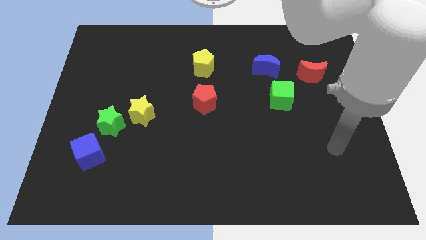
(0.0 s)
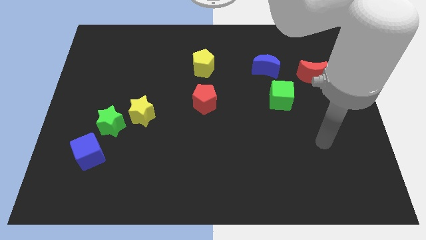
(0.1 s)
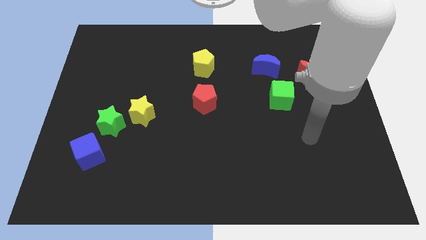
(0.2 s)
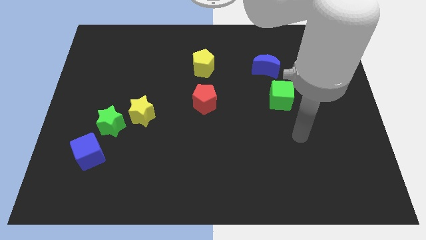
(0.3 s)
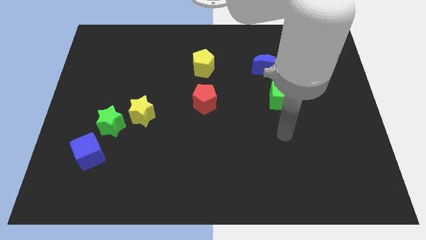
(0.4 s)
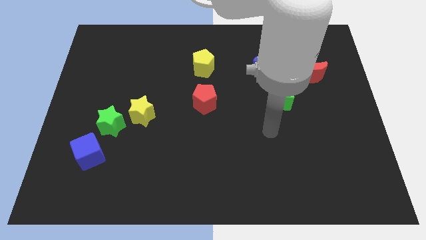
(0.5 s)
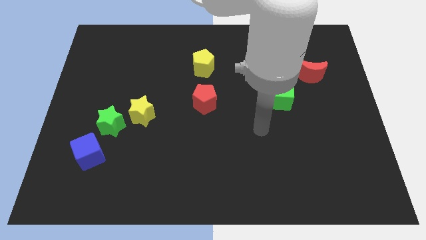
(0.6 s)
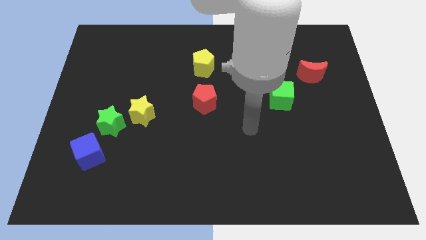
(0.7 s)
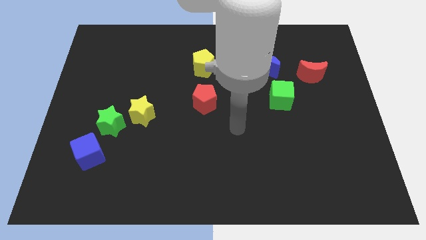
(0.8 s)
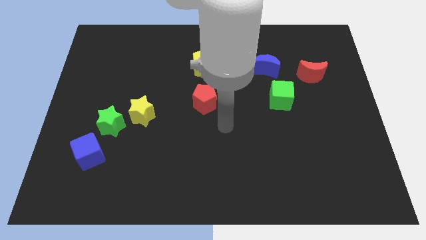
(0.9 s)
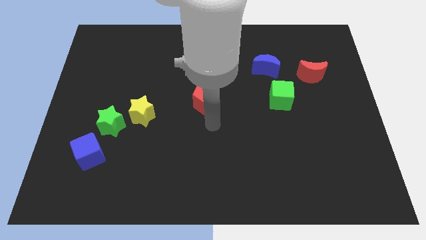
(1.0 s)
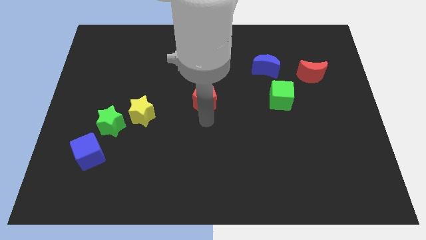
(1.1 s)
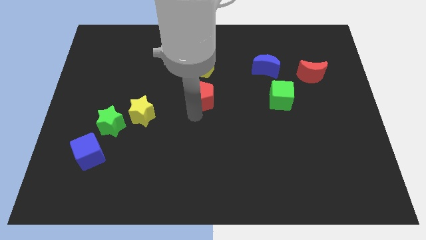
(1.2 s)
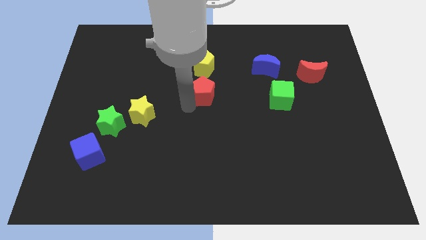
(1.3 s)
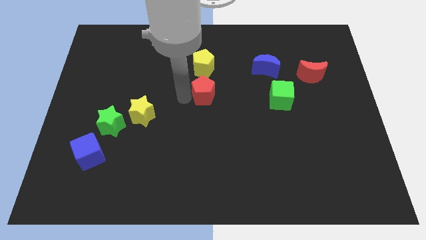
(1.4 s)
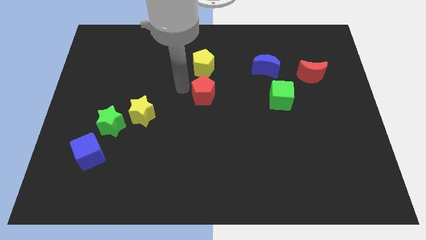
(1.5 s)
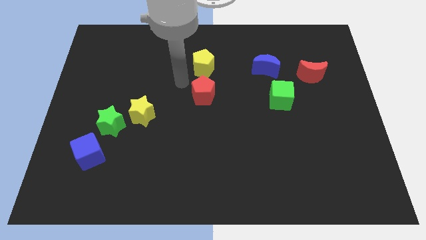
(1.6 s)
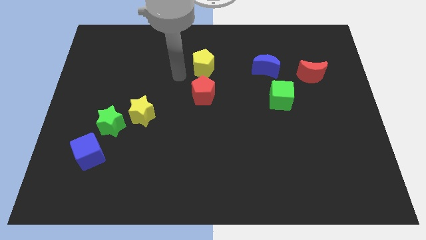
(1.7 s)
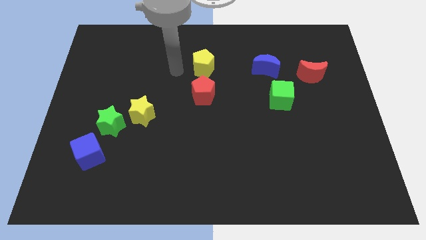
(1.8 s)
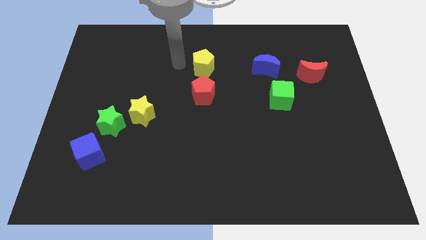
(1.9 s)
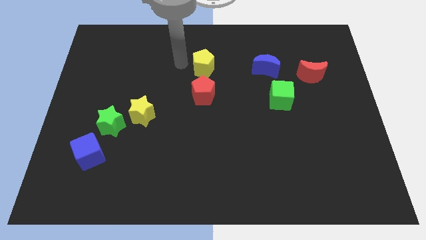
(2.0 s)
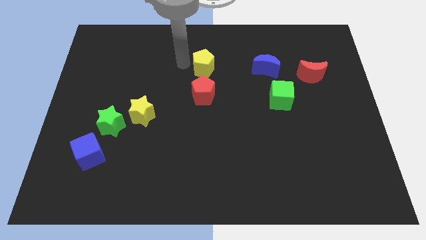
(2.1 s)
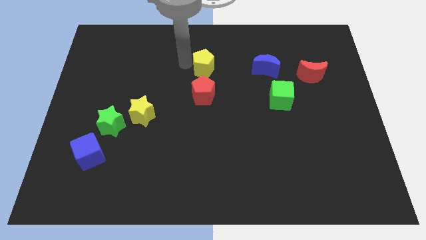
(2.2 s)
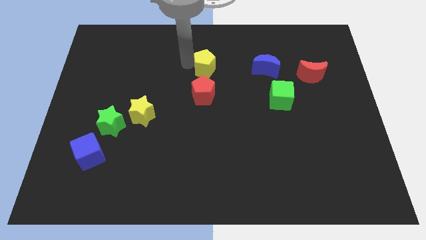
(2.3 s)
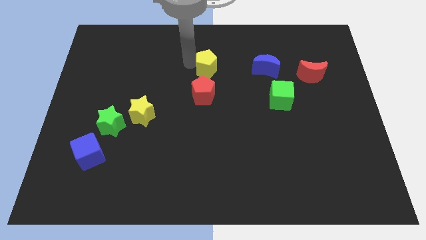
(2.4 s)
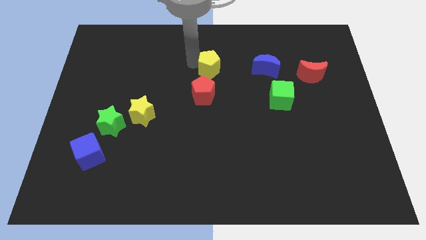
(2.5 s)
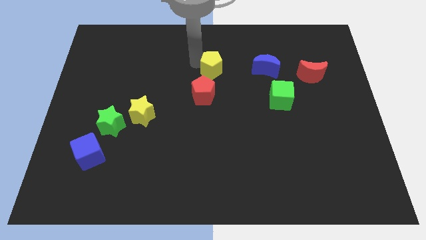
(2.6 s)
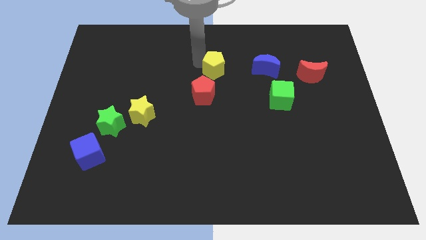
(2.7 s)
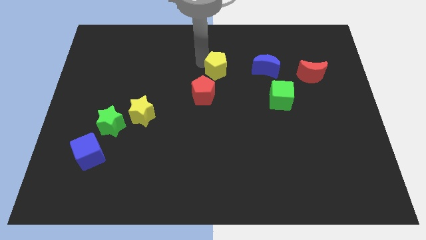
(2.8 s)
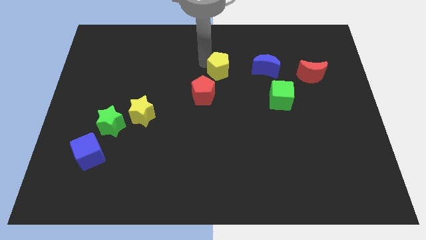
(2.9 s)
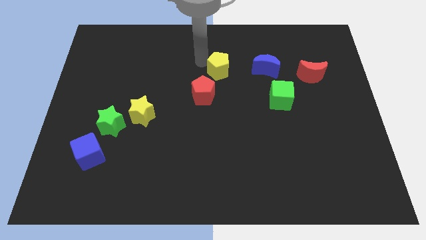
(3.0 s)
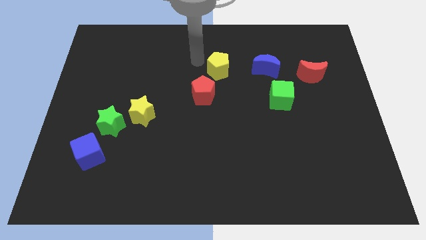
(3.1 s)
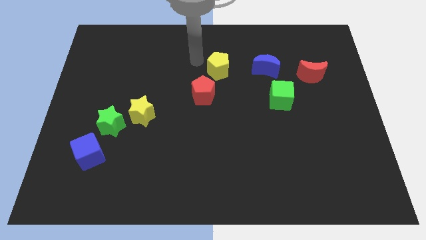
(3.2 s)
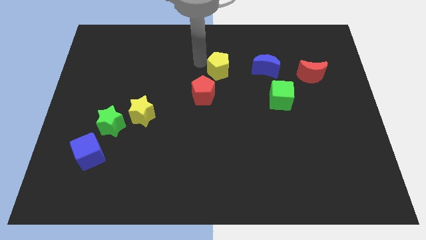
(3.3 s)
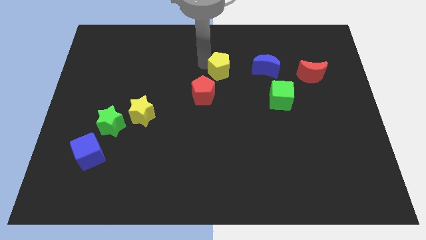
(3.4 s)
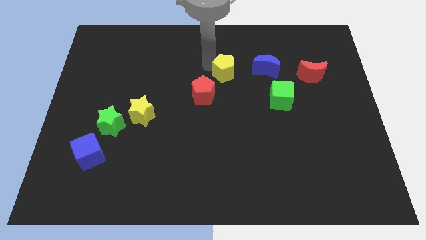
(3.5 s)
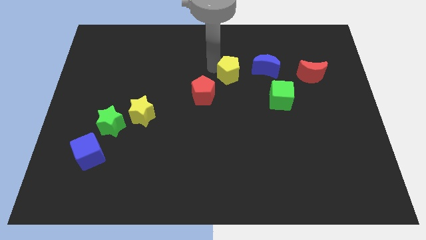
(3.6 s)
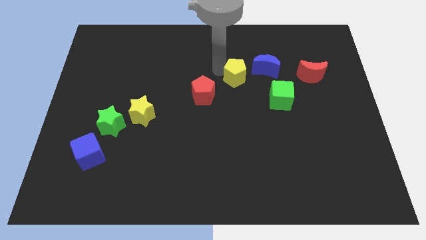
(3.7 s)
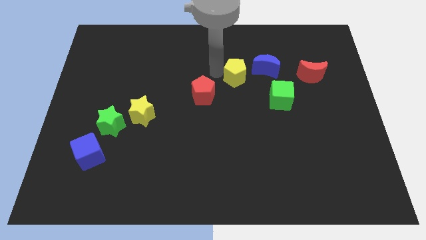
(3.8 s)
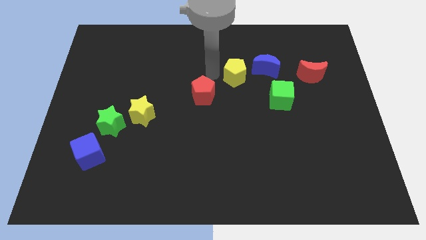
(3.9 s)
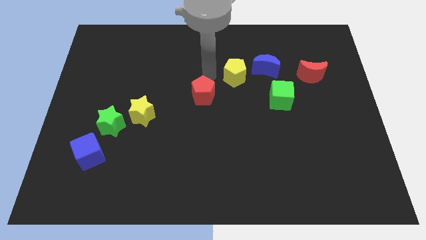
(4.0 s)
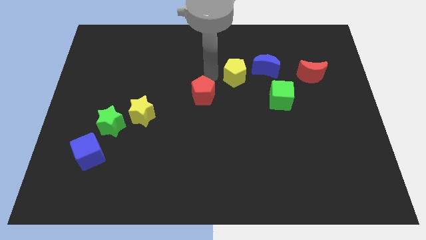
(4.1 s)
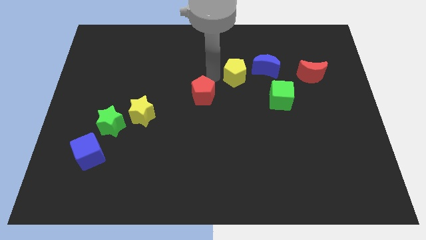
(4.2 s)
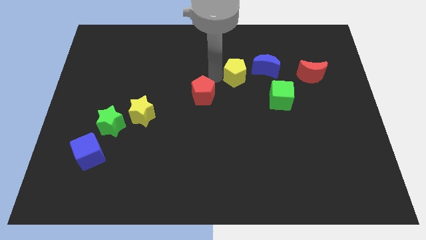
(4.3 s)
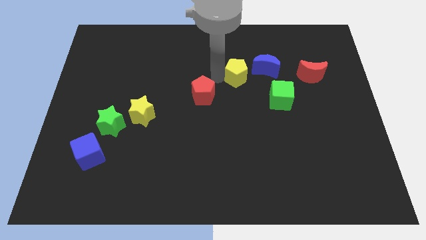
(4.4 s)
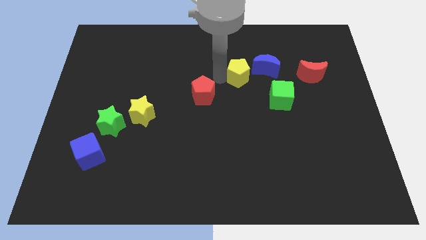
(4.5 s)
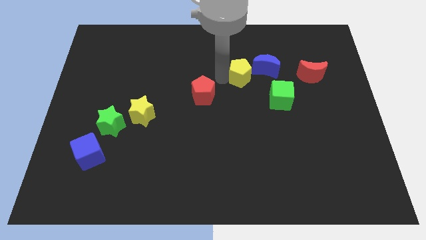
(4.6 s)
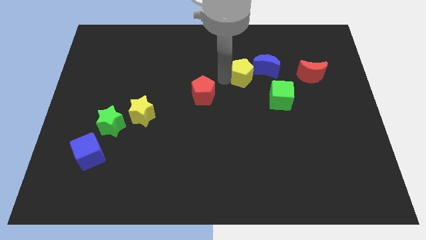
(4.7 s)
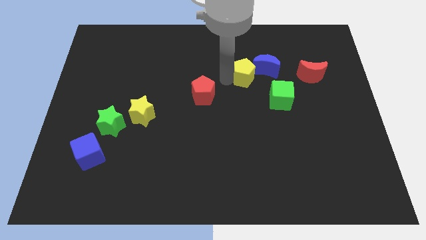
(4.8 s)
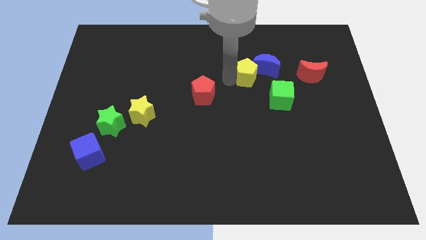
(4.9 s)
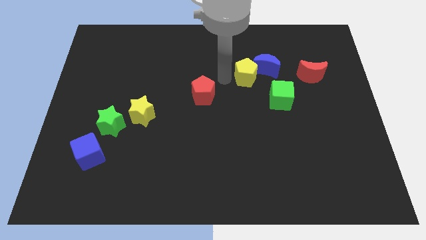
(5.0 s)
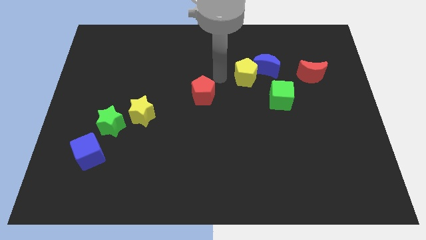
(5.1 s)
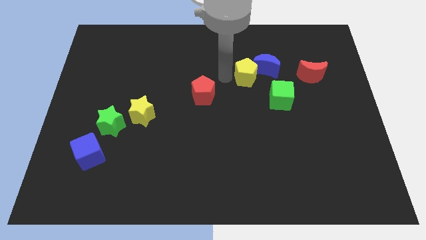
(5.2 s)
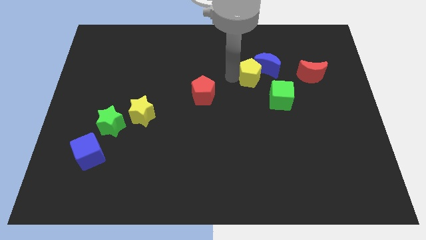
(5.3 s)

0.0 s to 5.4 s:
move the yellow pentagon just left of the red moon

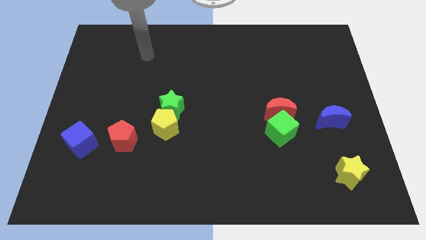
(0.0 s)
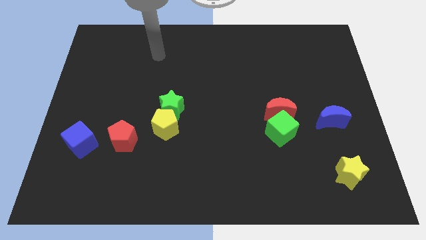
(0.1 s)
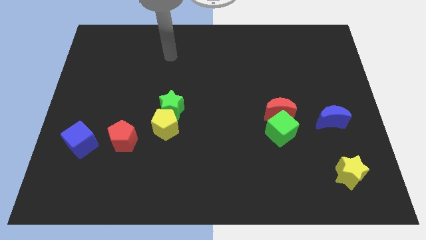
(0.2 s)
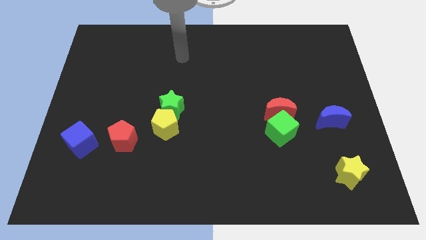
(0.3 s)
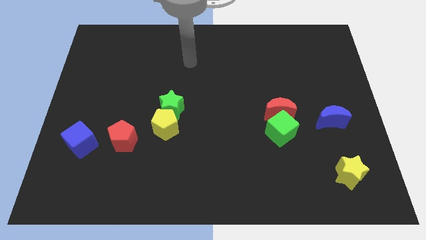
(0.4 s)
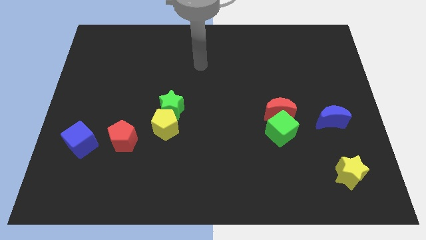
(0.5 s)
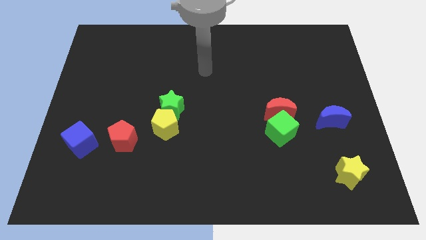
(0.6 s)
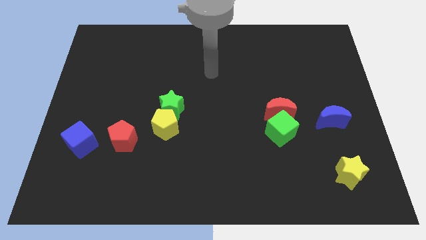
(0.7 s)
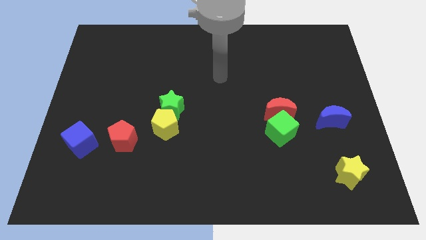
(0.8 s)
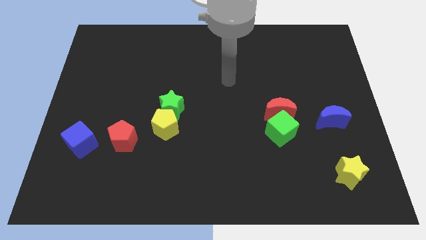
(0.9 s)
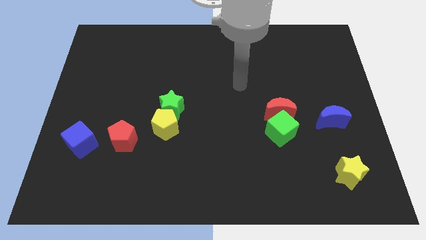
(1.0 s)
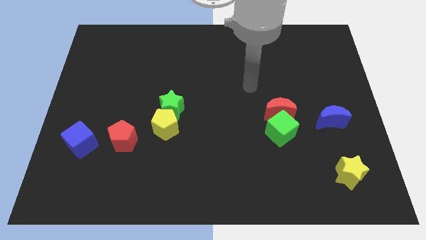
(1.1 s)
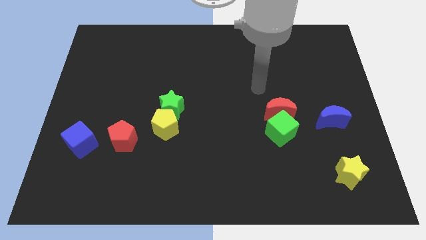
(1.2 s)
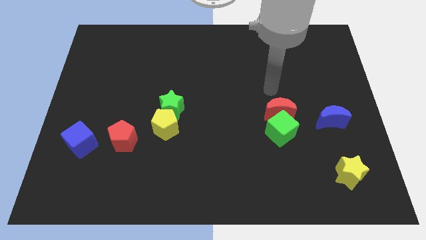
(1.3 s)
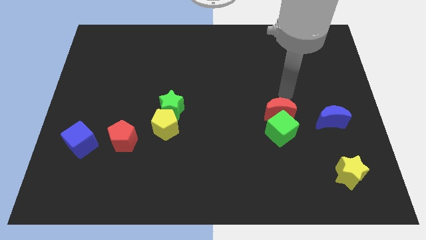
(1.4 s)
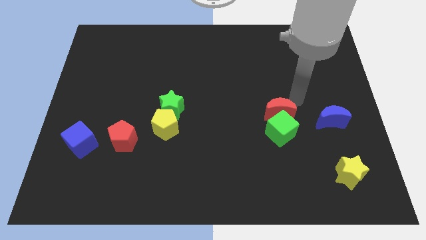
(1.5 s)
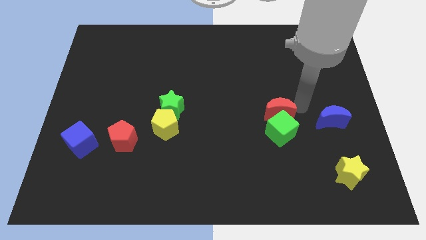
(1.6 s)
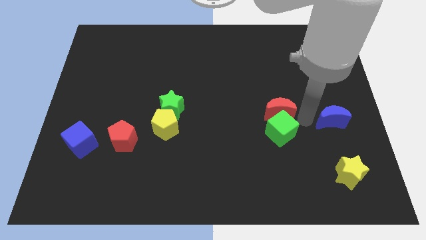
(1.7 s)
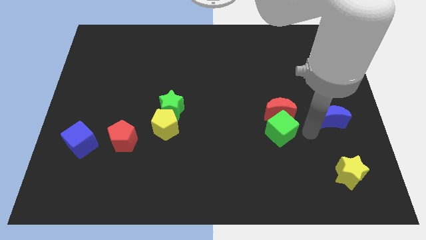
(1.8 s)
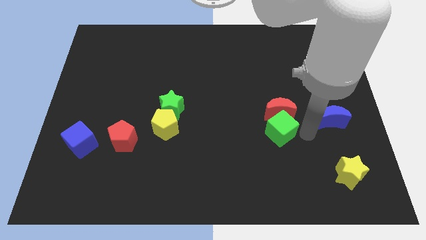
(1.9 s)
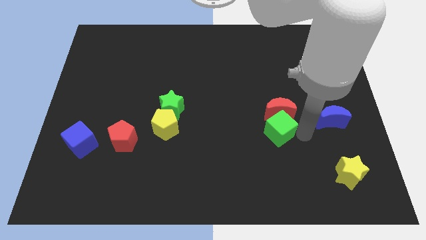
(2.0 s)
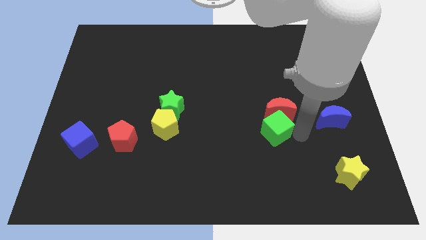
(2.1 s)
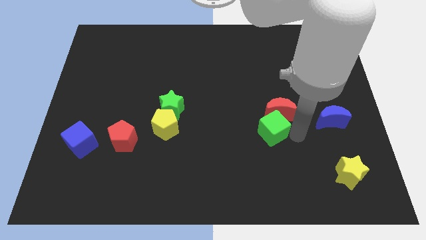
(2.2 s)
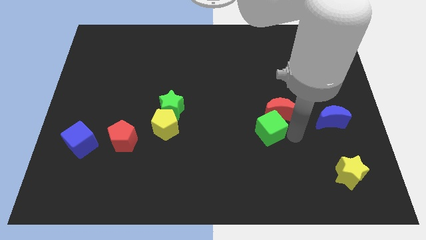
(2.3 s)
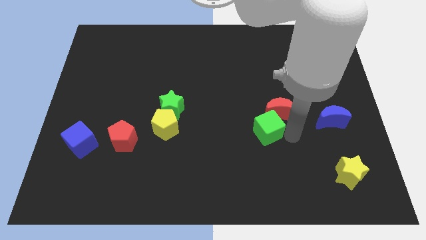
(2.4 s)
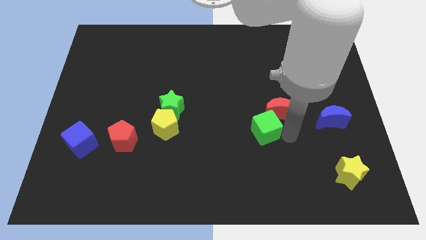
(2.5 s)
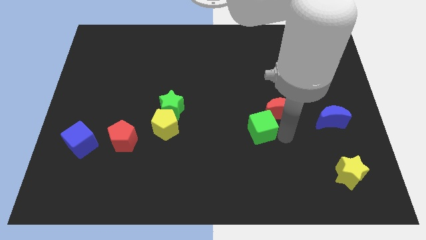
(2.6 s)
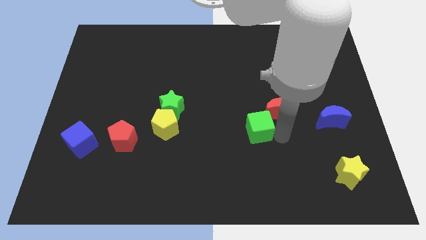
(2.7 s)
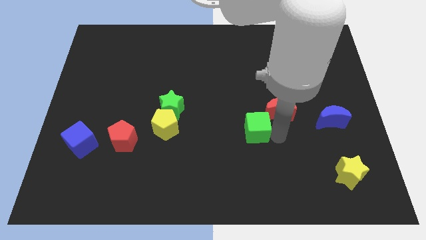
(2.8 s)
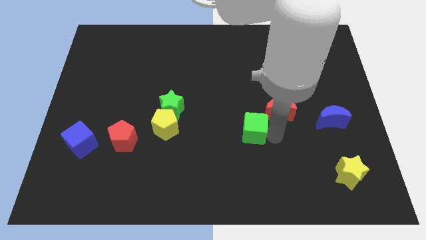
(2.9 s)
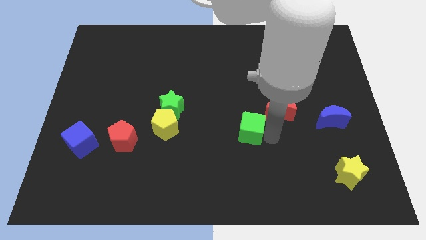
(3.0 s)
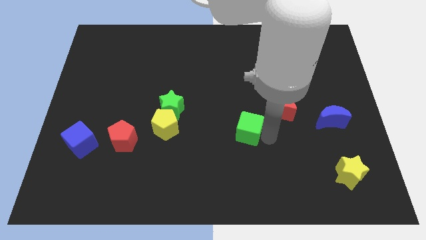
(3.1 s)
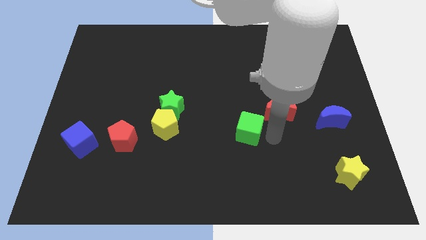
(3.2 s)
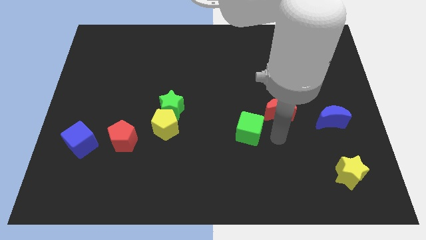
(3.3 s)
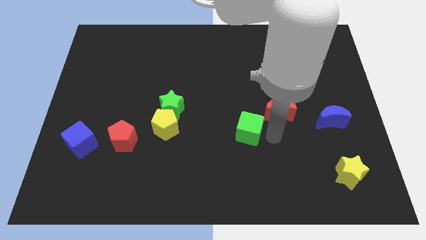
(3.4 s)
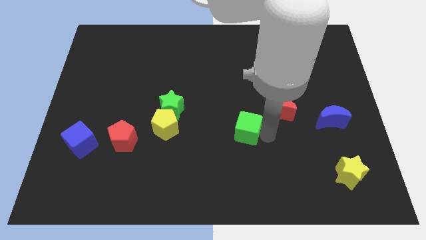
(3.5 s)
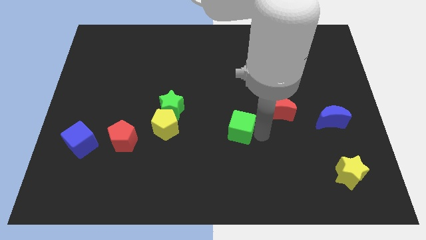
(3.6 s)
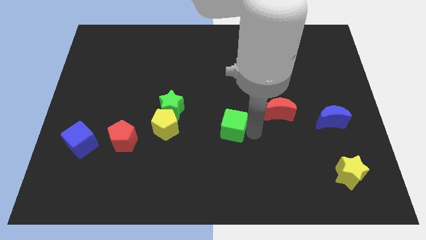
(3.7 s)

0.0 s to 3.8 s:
move the green cube just right of the yellow pentagon
